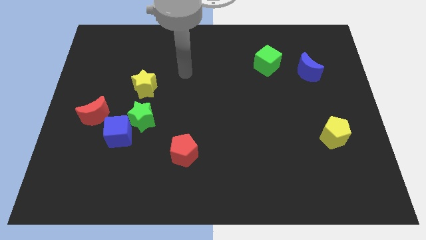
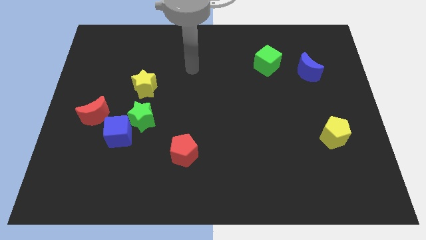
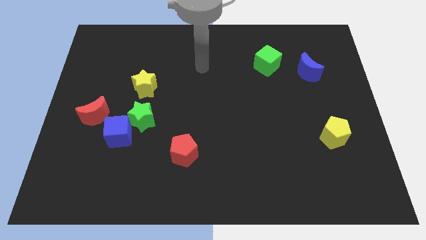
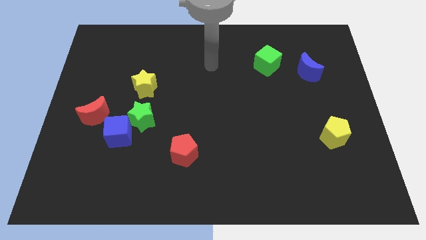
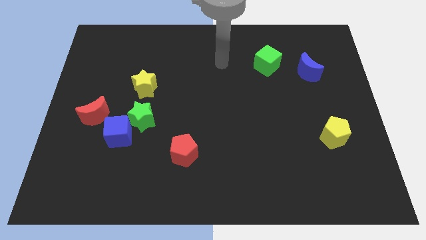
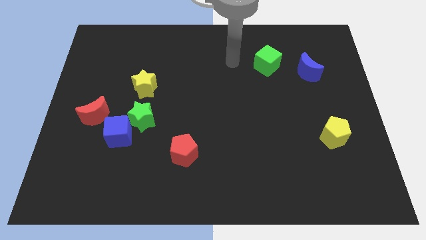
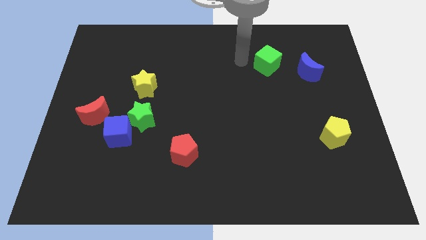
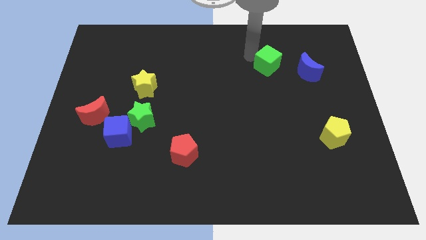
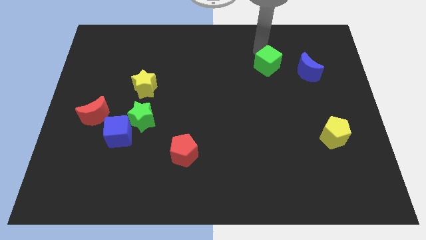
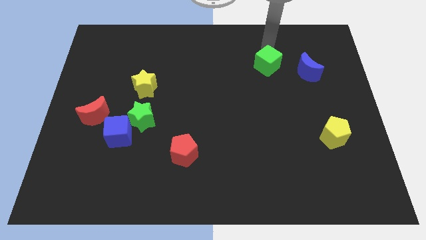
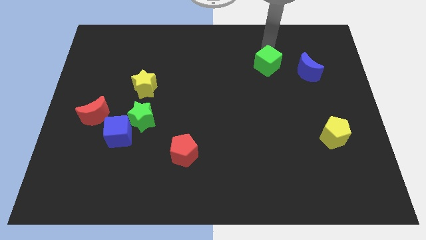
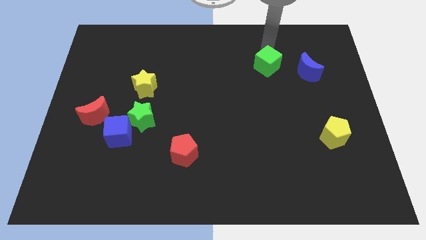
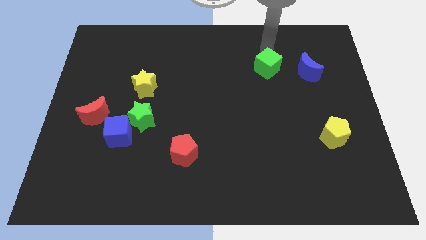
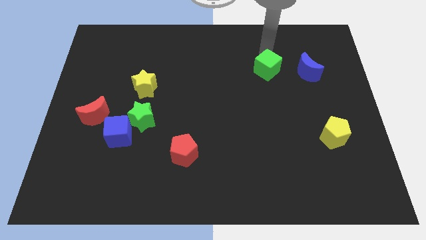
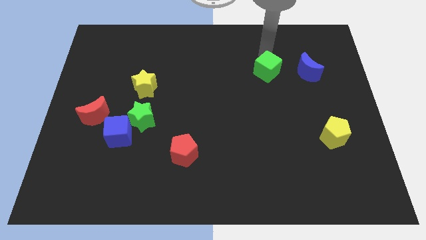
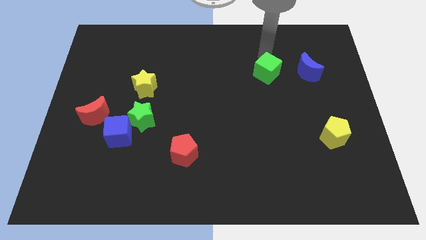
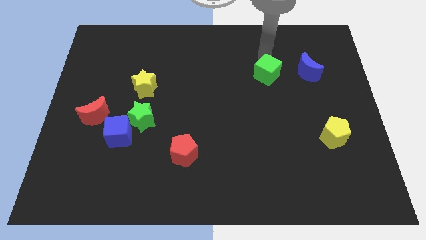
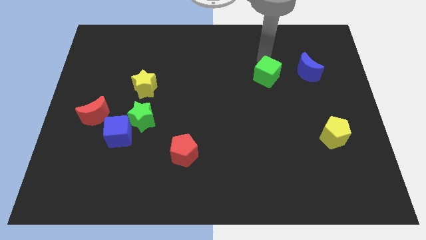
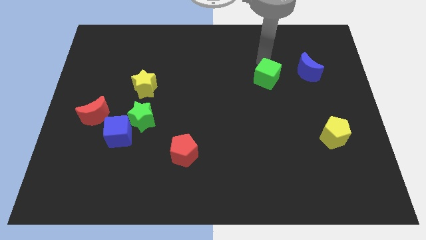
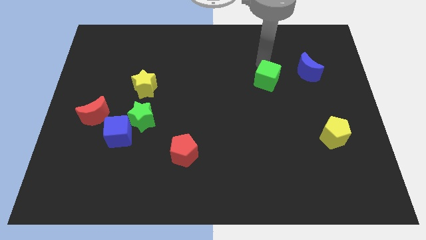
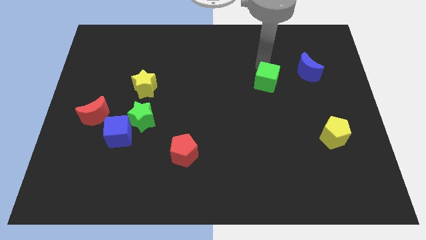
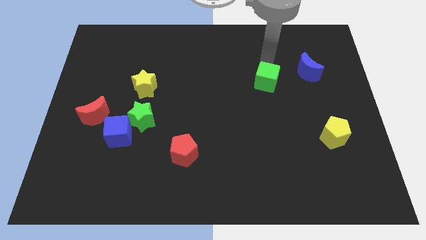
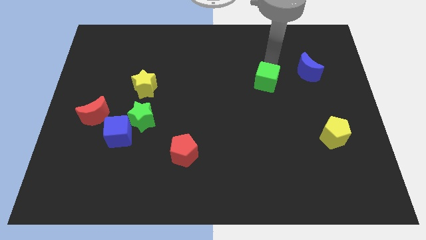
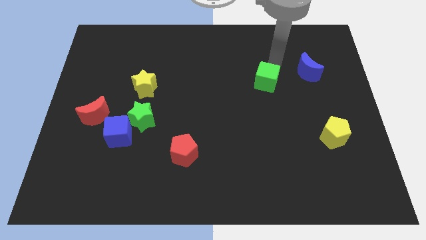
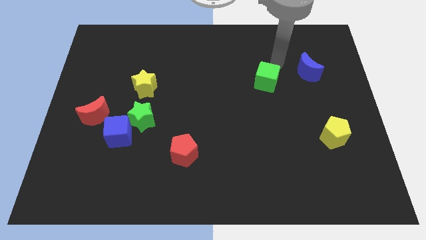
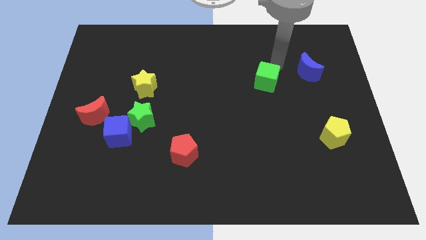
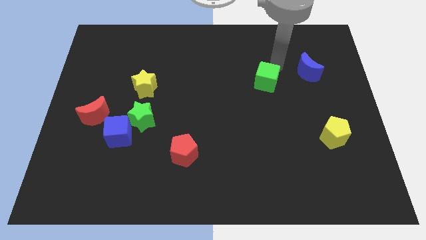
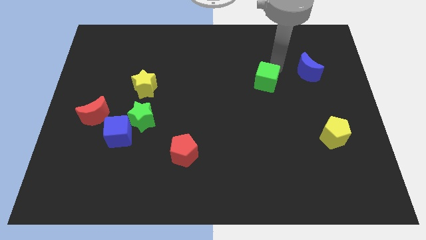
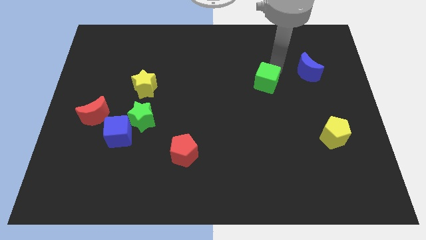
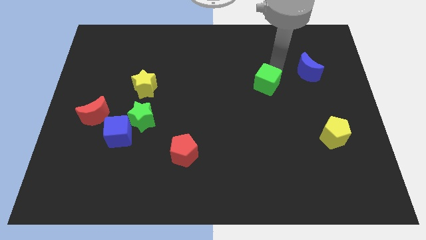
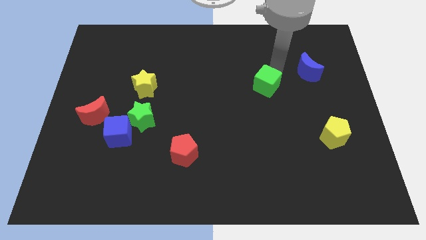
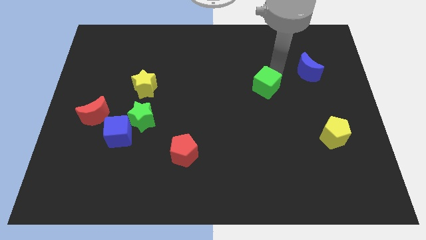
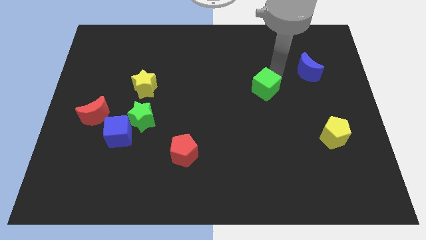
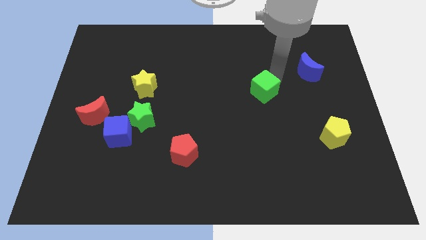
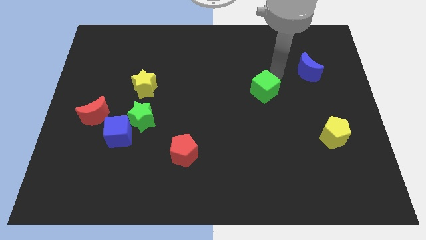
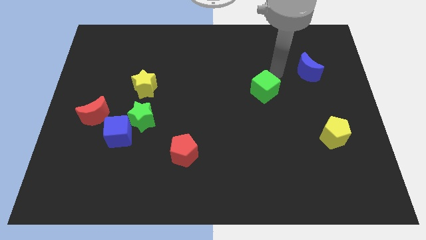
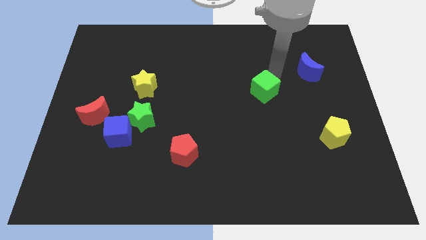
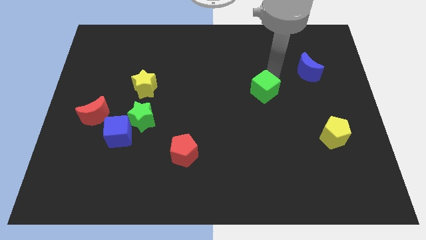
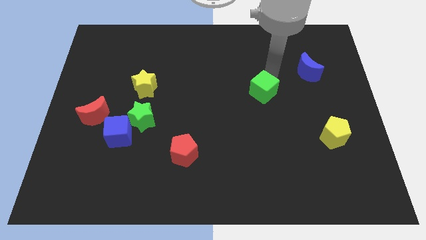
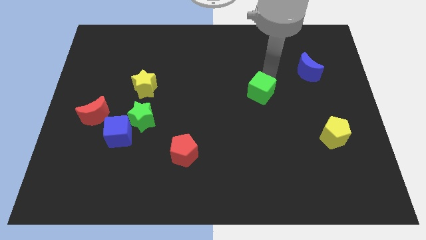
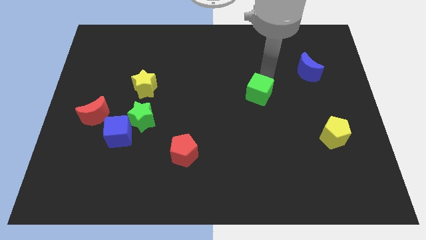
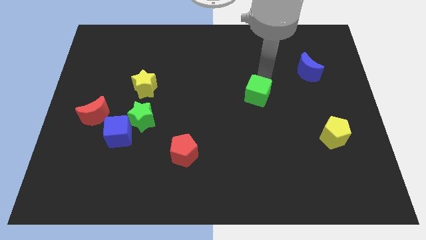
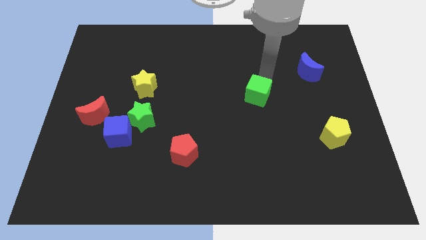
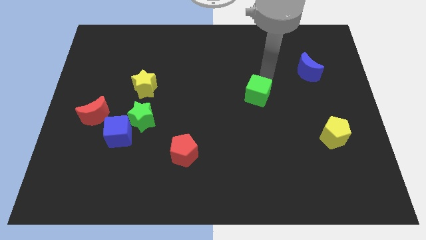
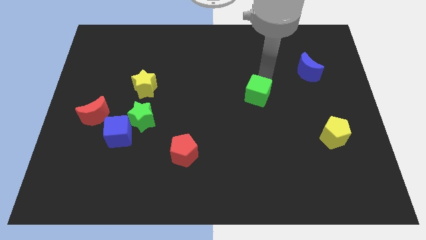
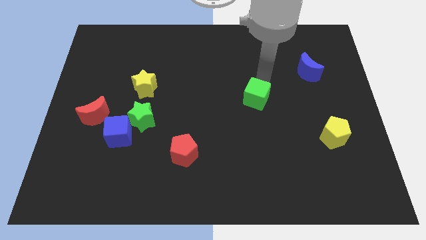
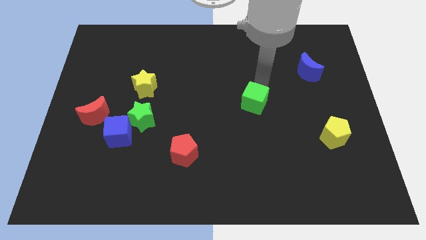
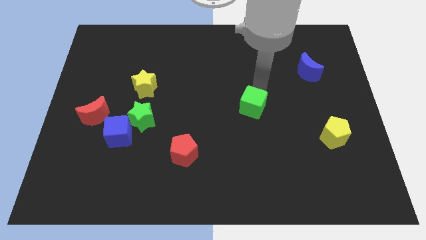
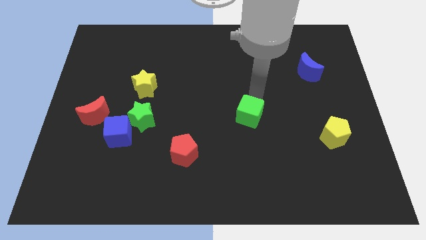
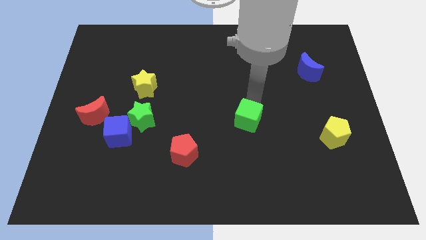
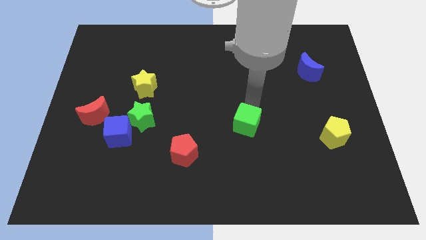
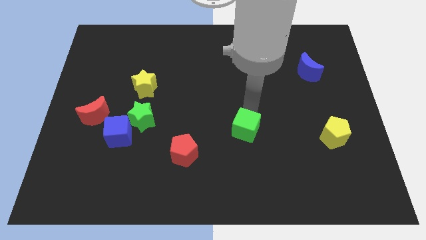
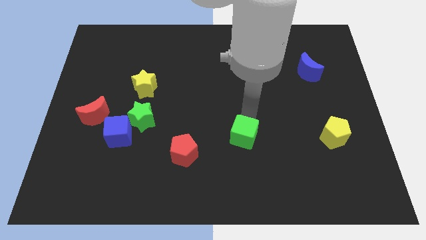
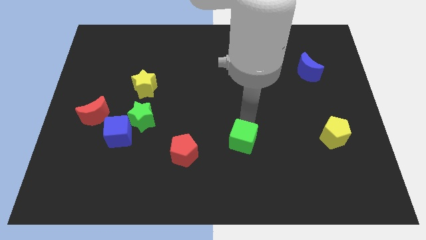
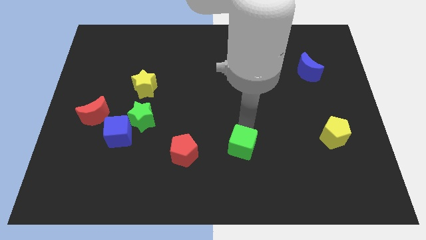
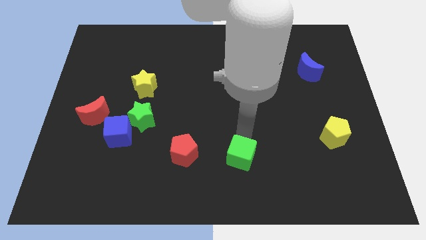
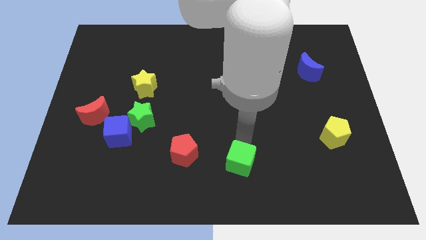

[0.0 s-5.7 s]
slide the green cube to the bottom side

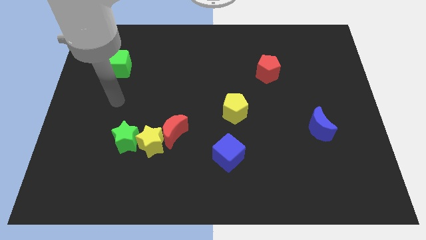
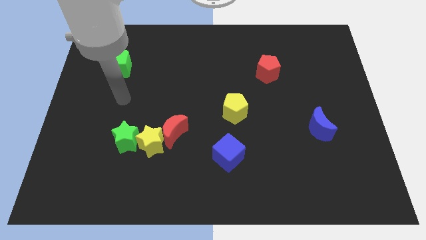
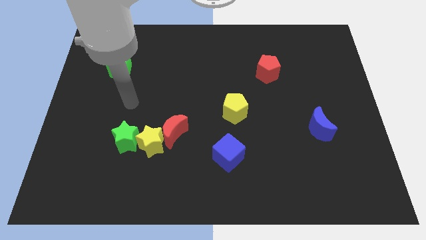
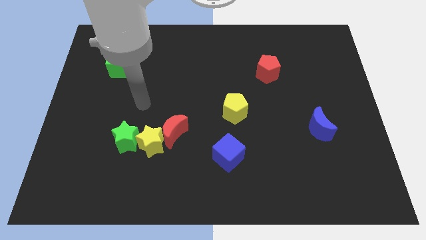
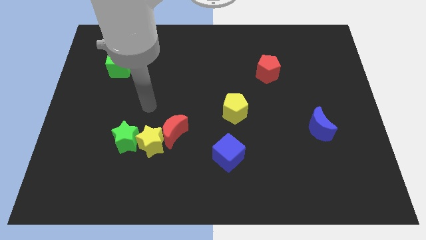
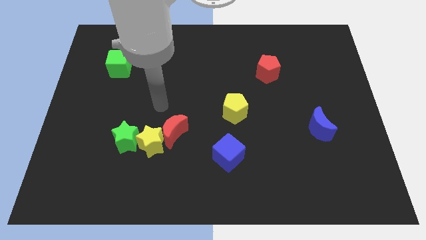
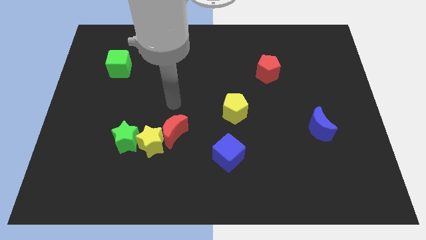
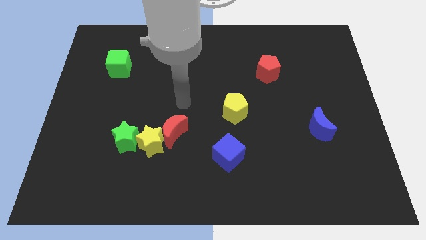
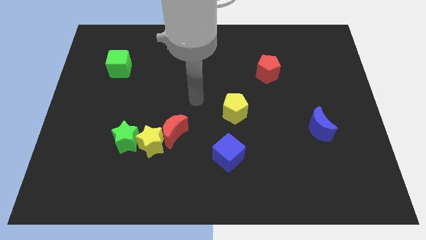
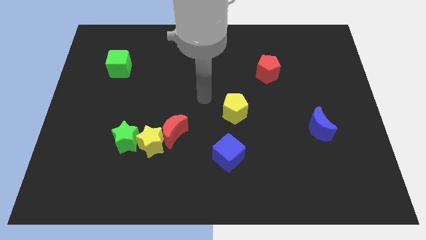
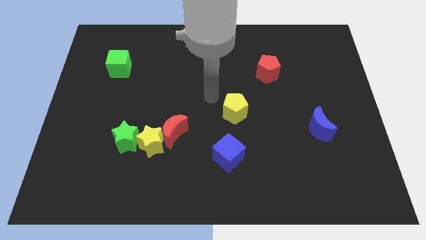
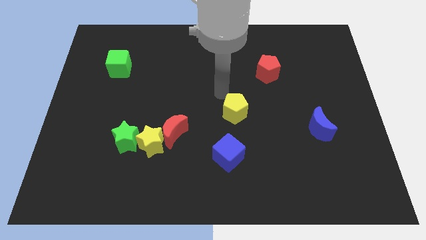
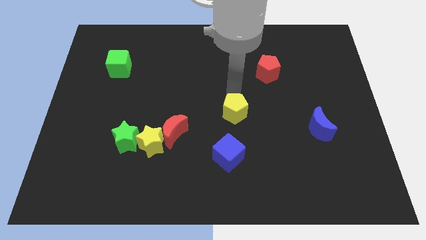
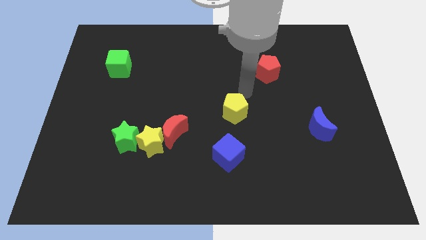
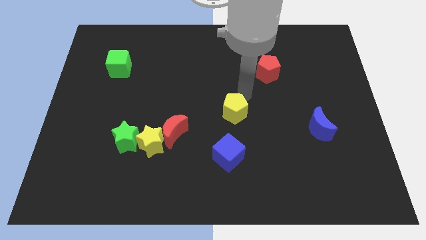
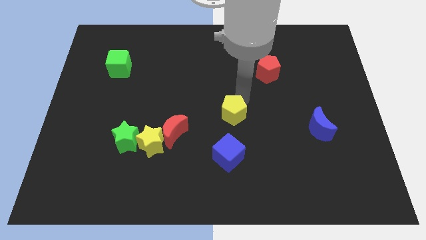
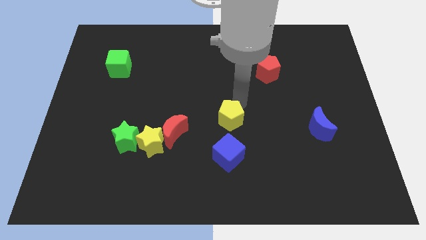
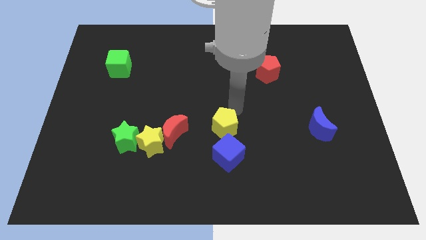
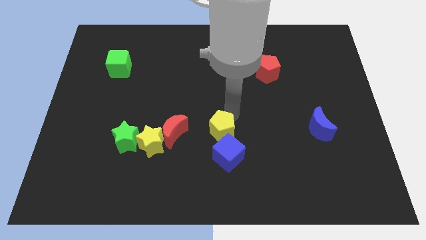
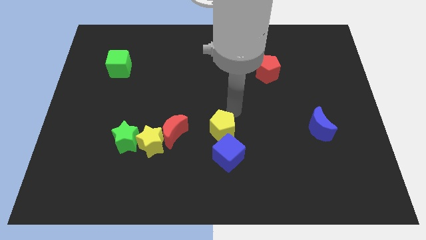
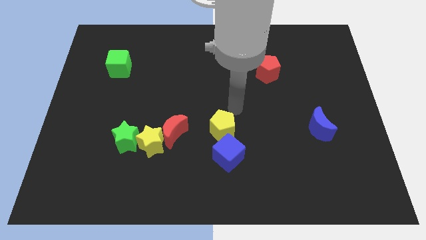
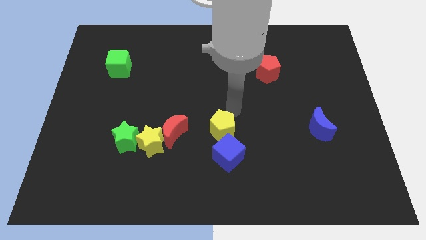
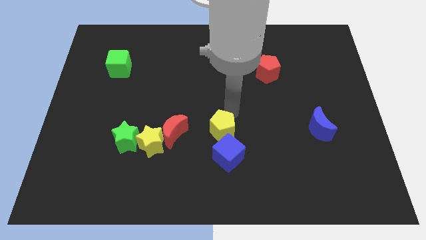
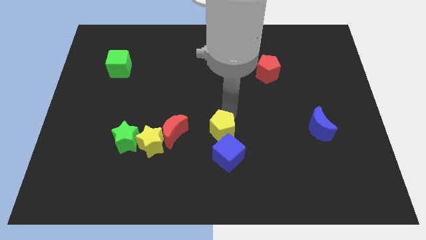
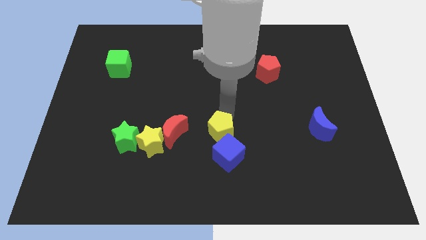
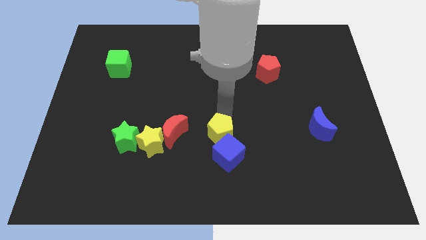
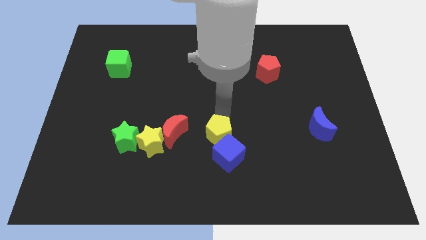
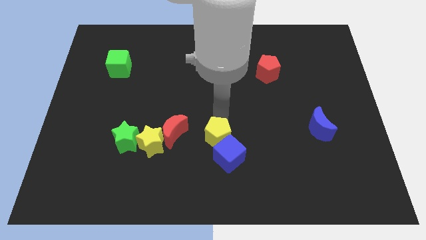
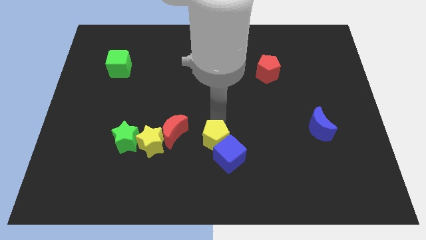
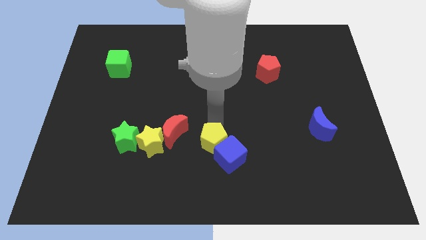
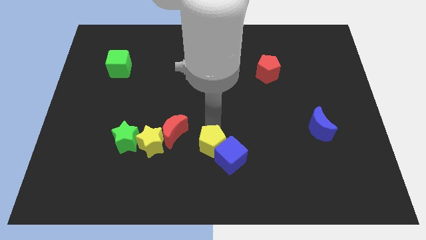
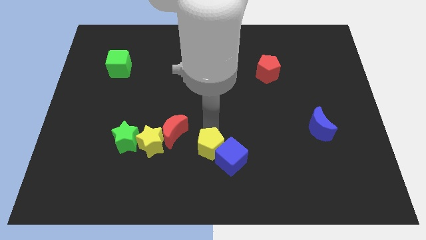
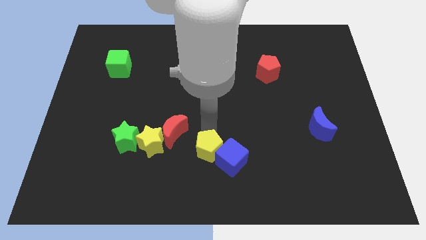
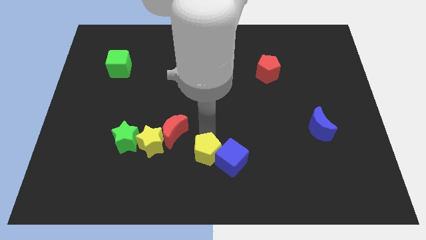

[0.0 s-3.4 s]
move the yellow pentagon to the bottom
